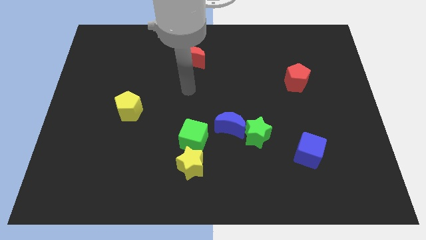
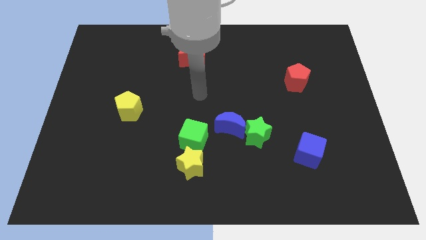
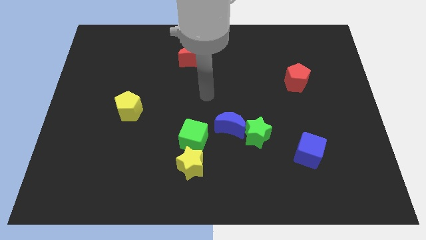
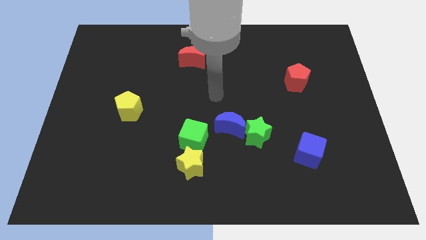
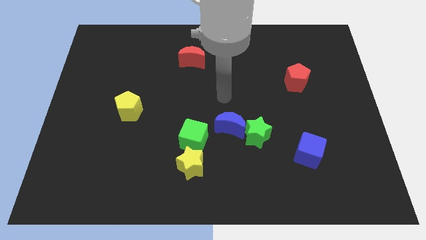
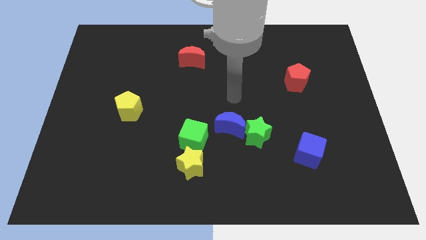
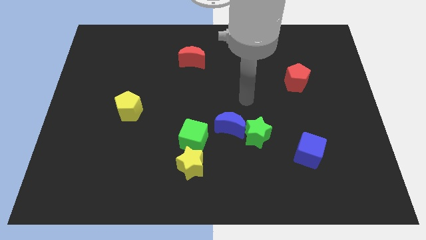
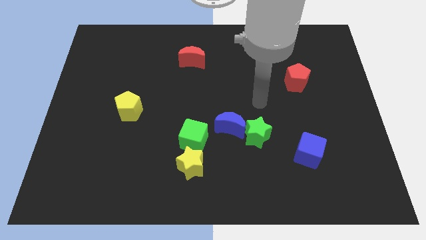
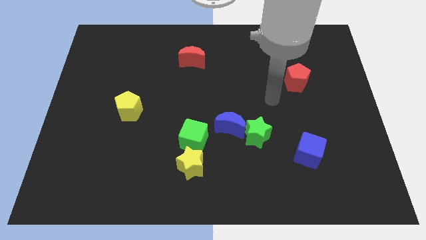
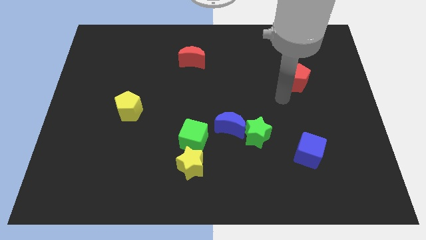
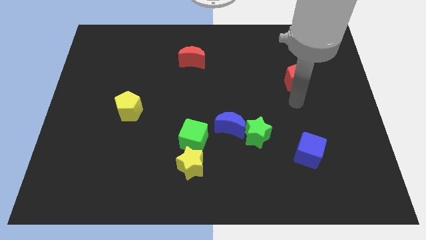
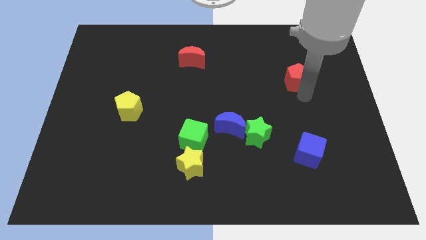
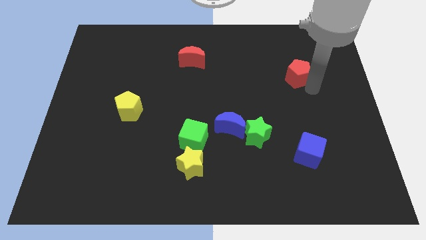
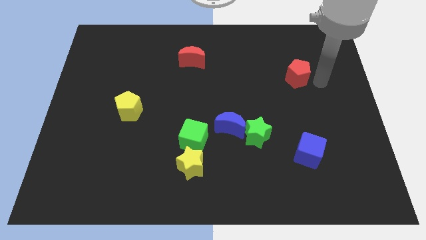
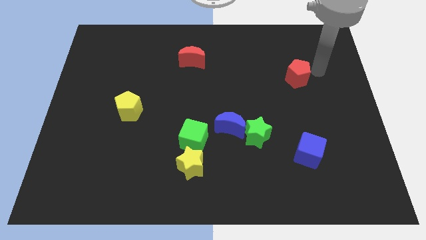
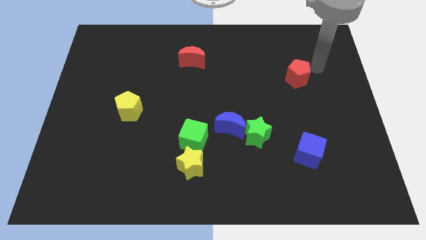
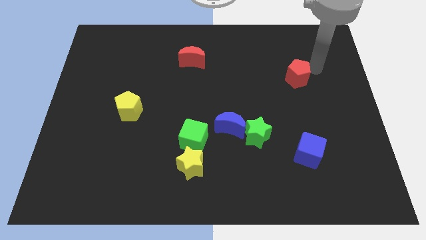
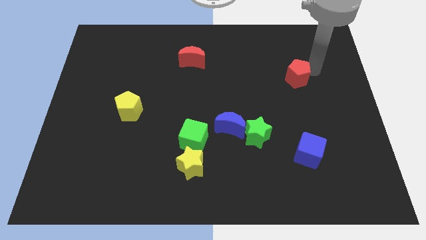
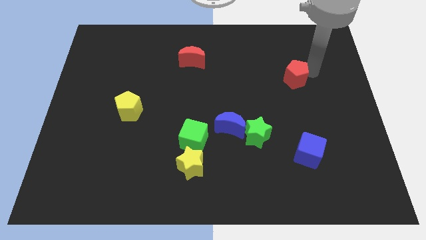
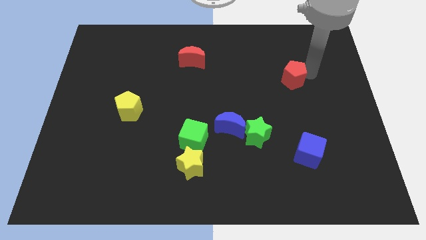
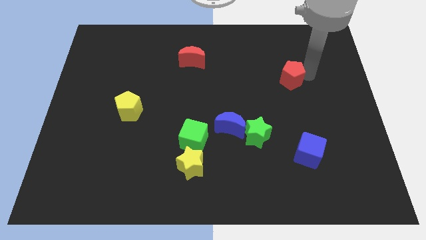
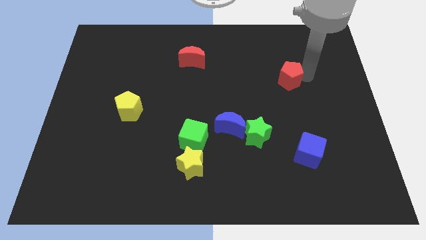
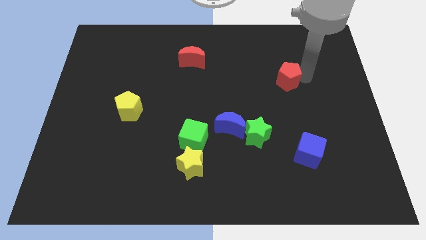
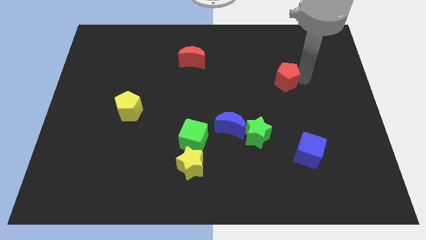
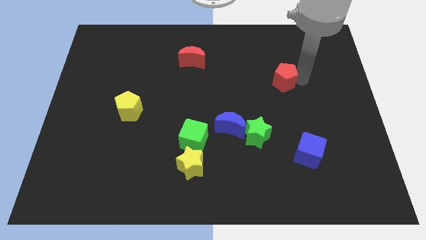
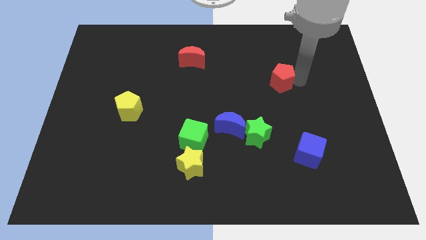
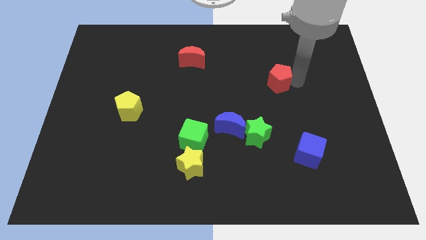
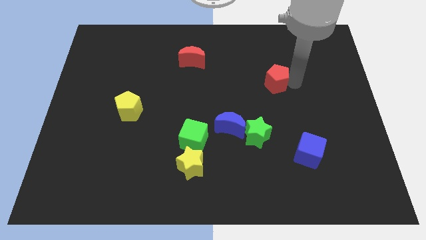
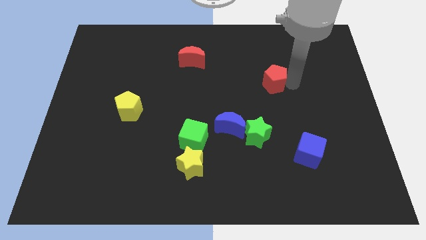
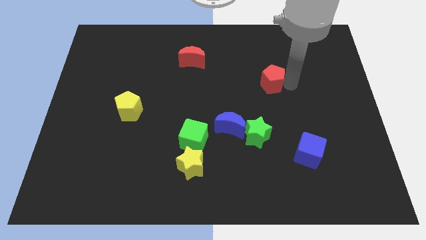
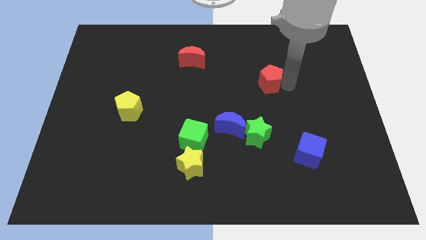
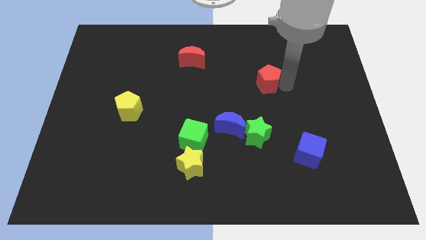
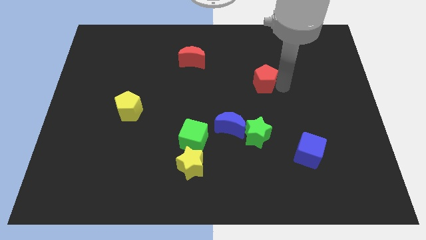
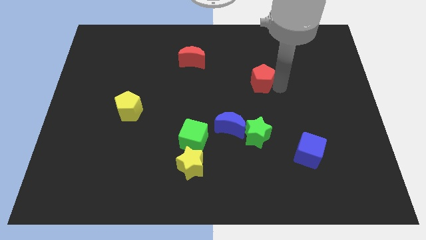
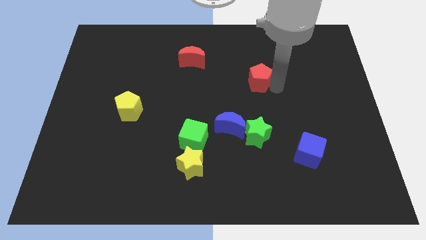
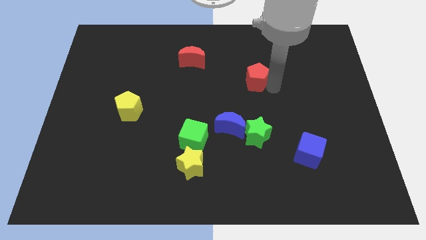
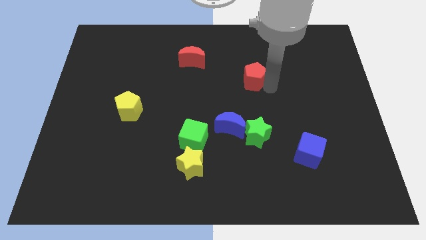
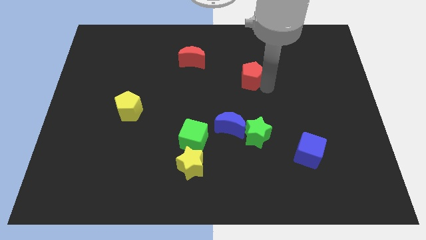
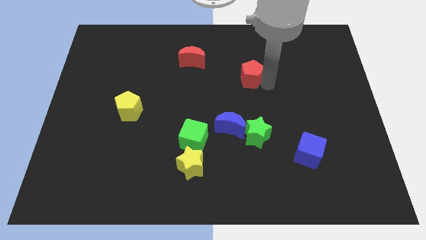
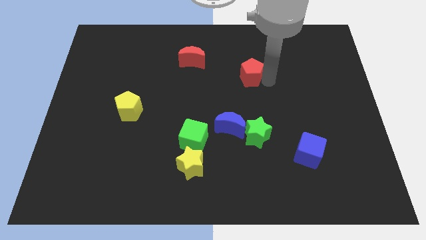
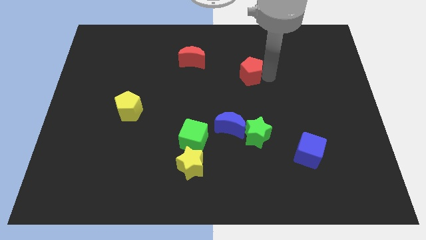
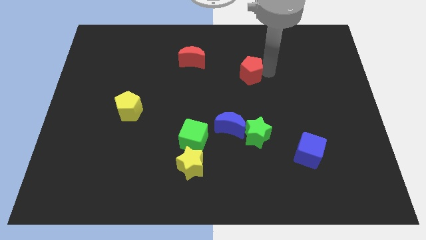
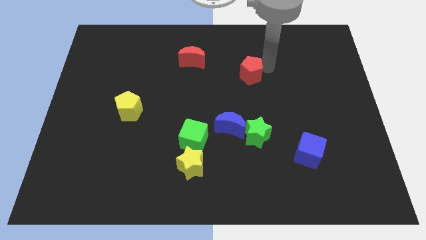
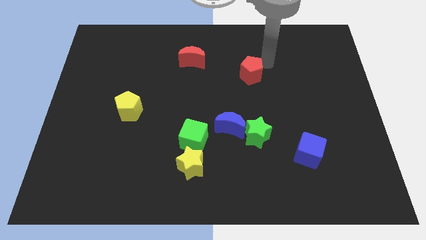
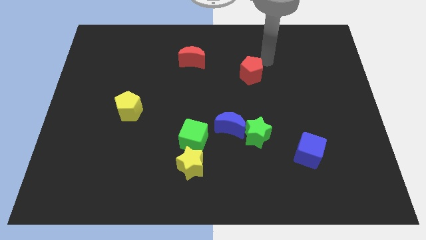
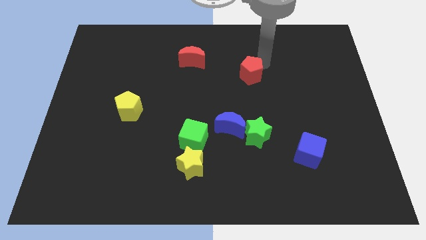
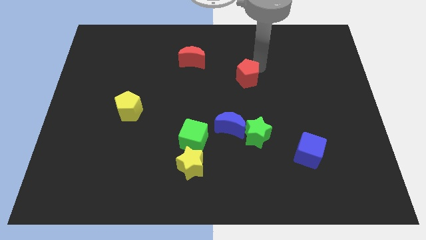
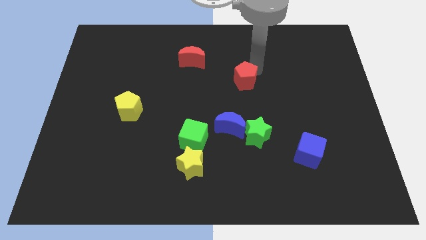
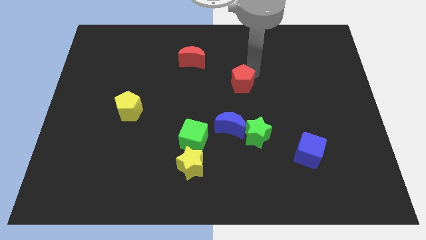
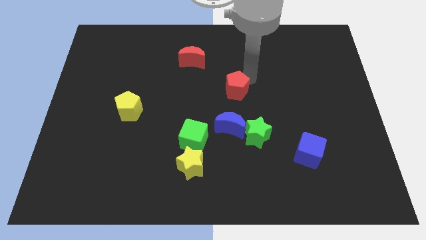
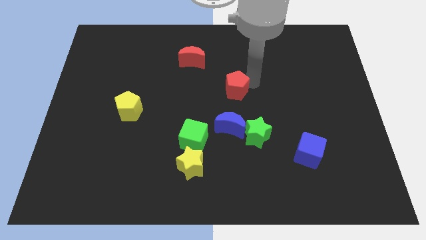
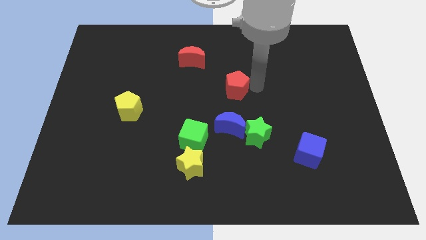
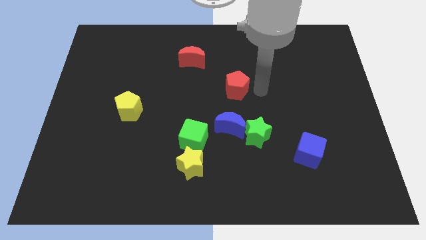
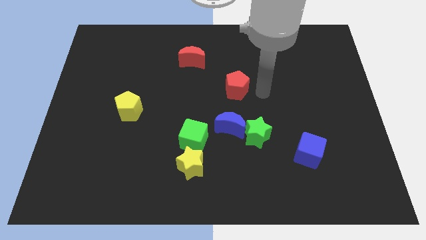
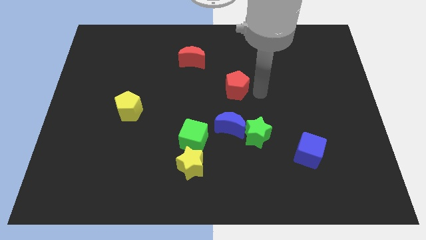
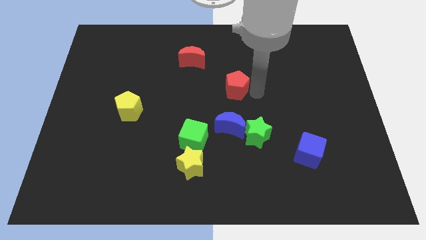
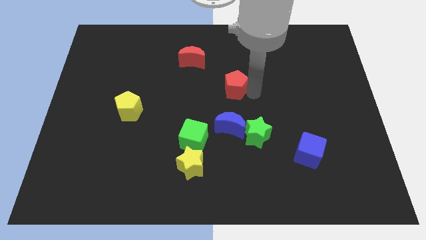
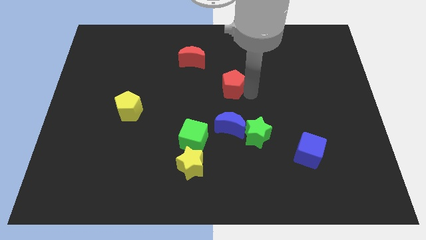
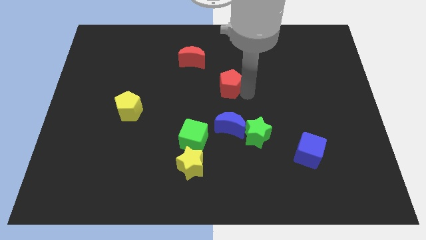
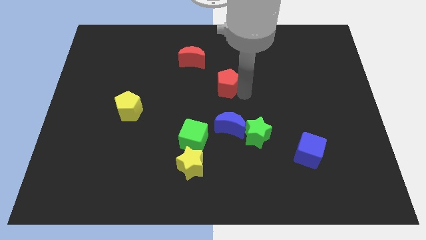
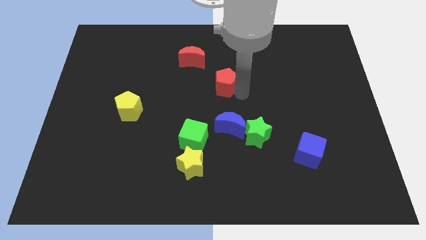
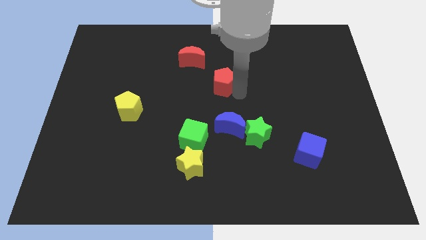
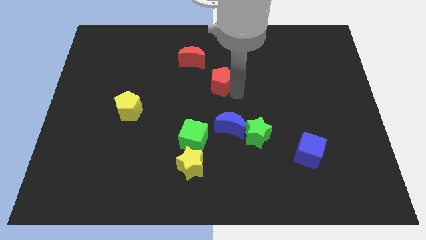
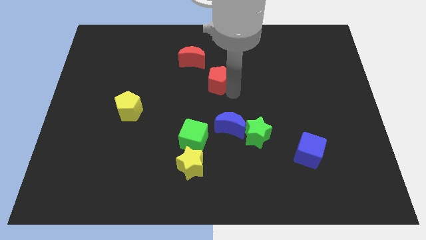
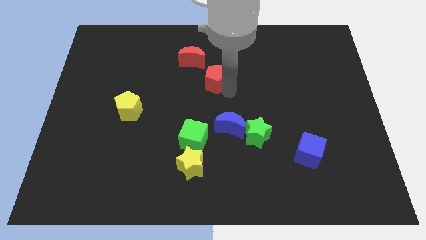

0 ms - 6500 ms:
slide the red pentagon left

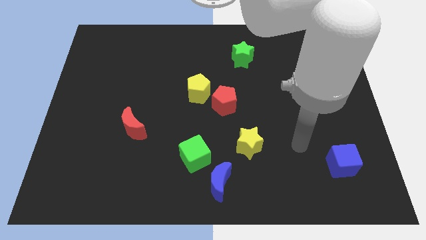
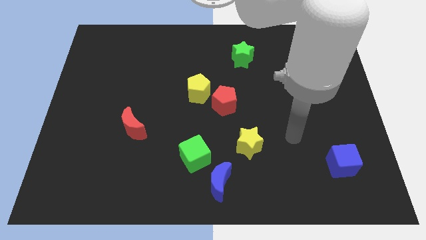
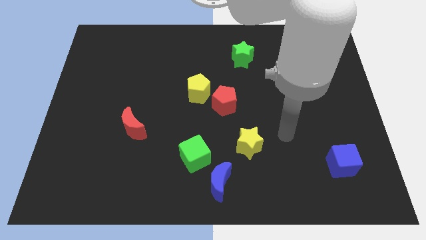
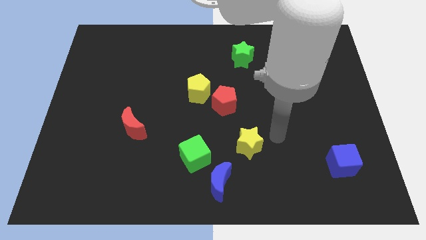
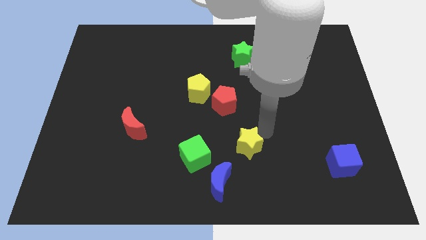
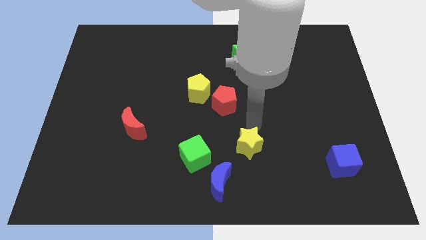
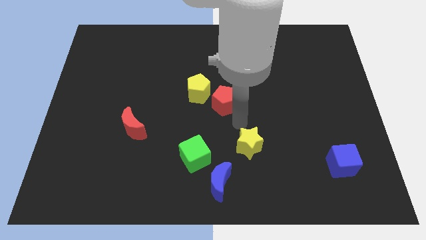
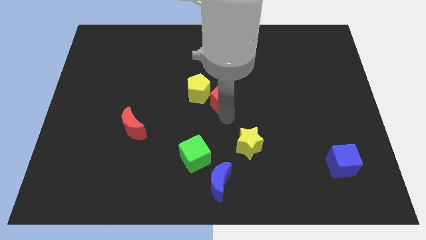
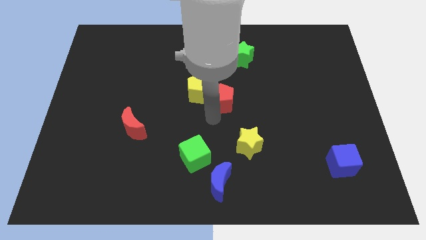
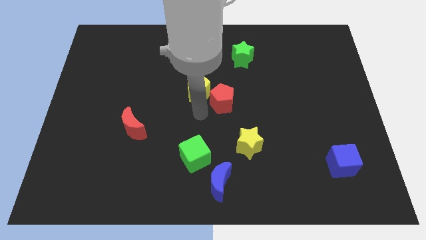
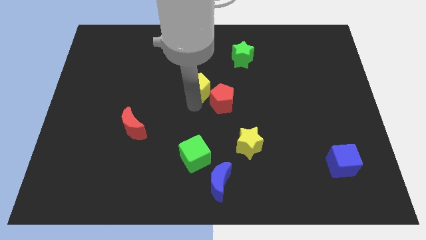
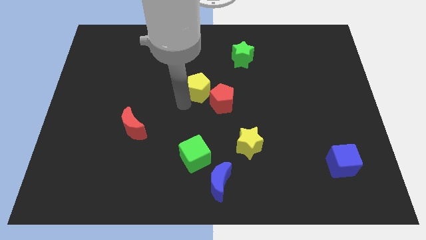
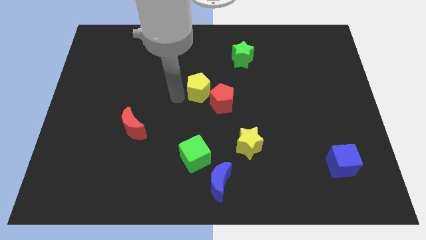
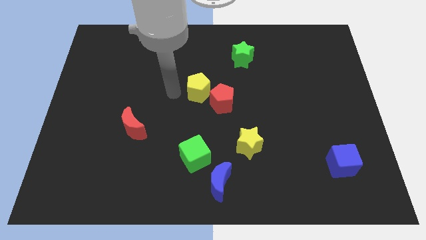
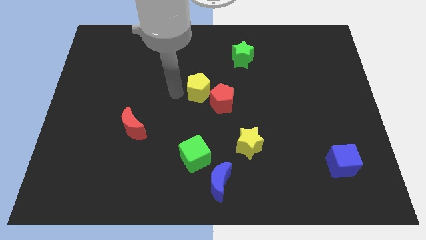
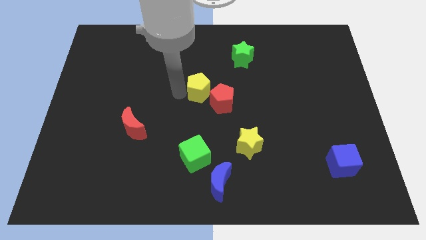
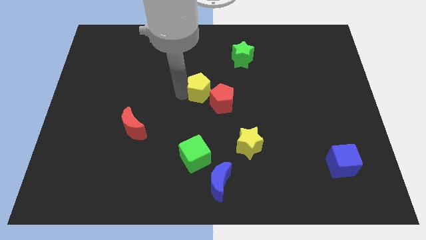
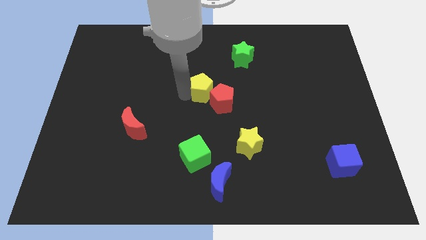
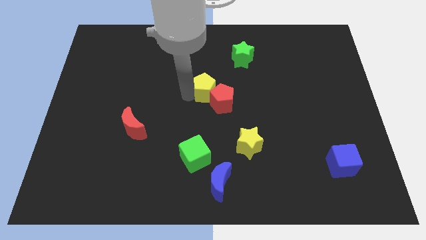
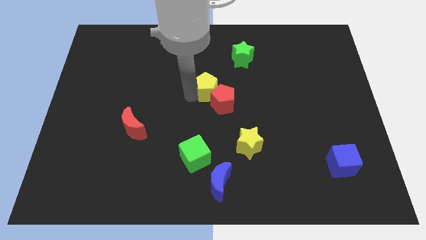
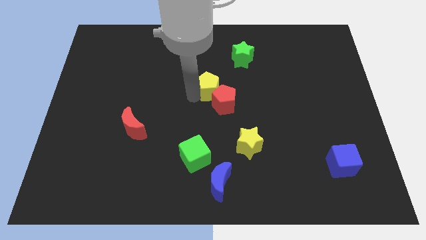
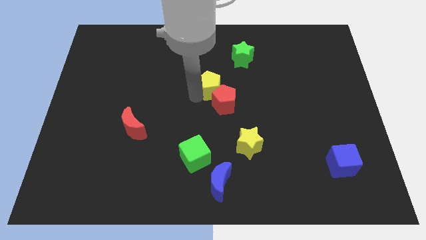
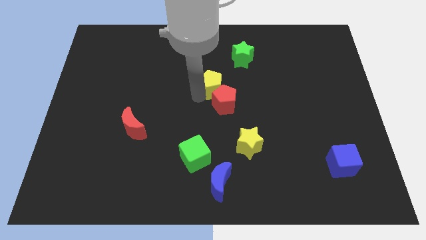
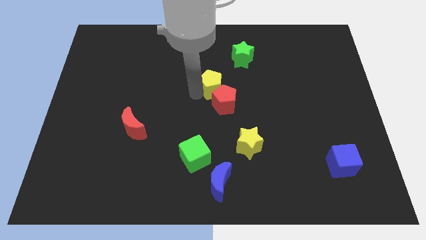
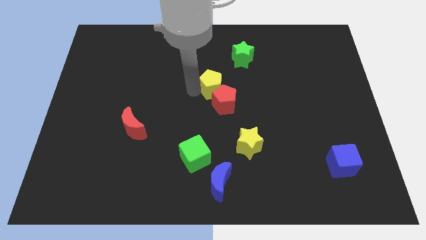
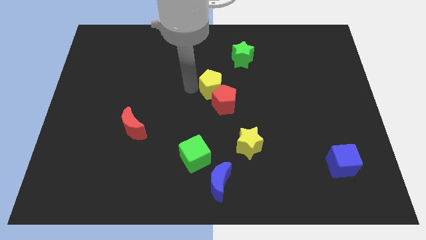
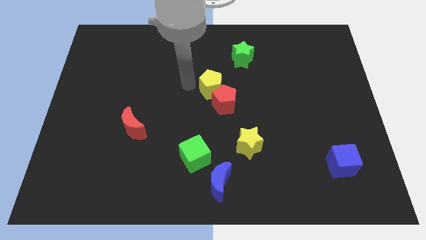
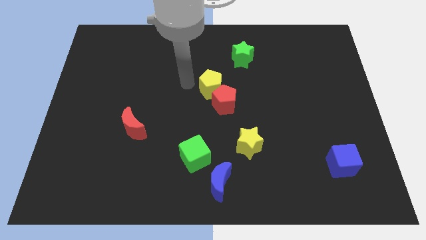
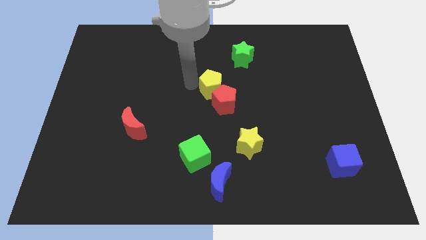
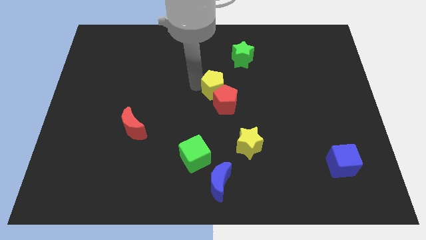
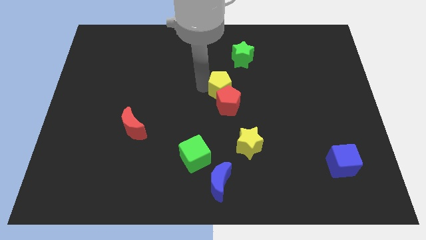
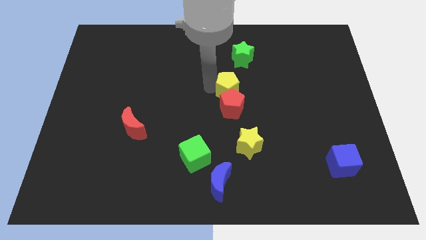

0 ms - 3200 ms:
move the yellow pentagon right somewhat
